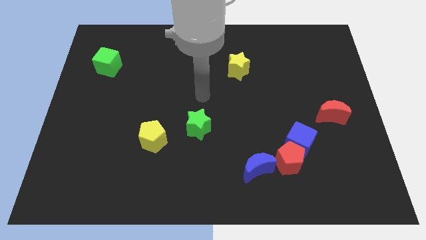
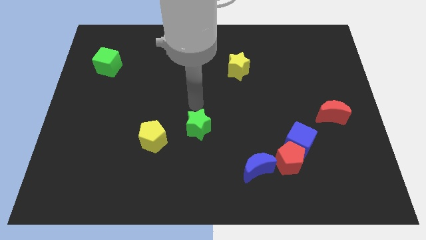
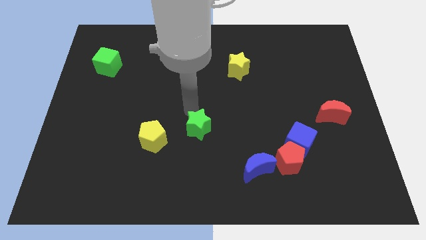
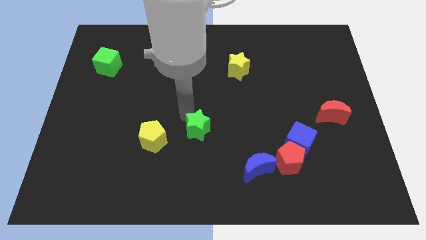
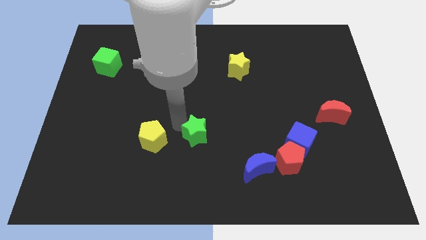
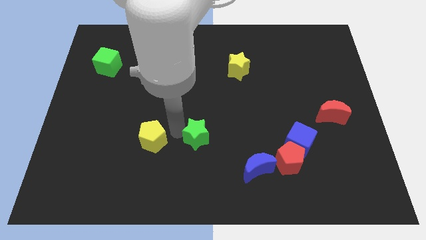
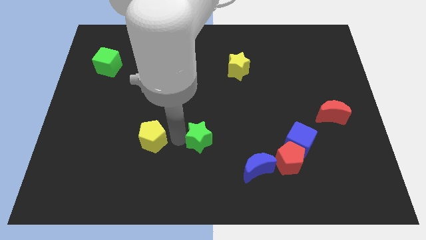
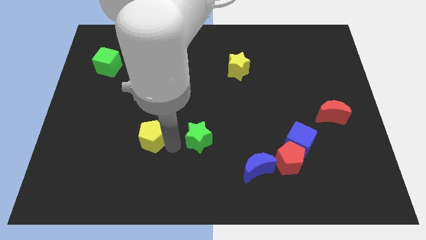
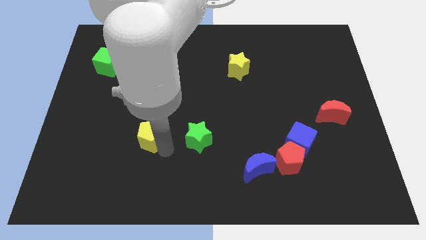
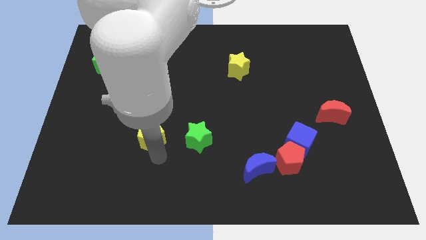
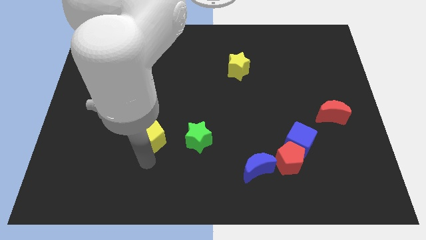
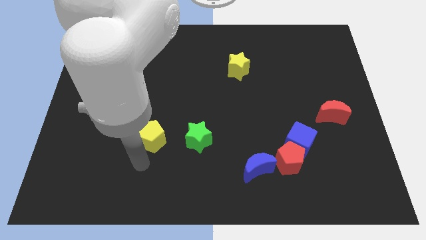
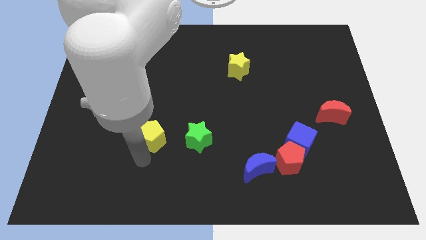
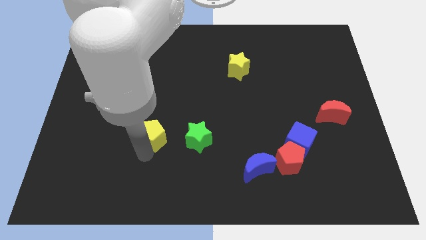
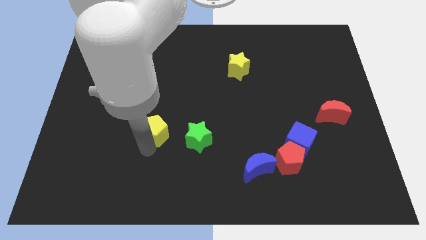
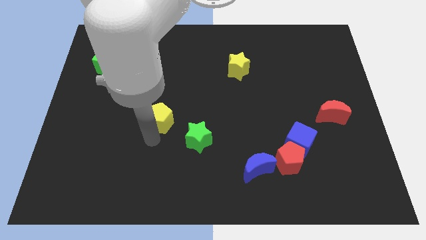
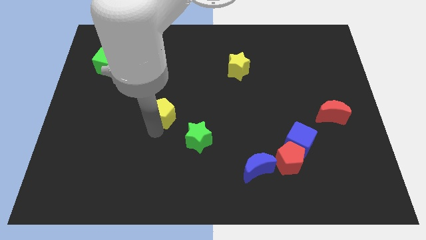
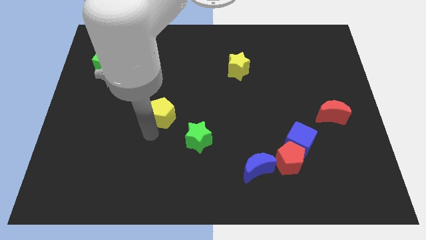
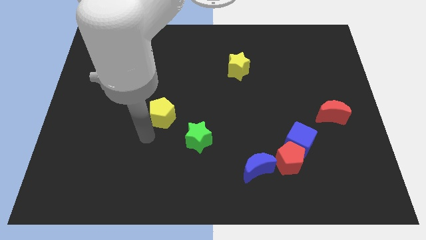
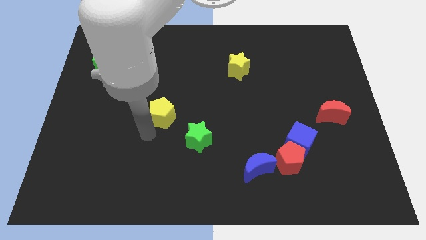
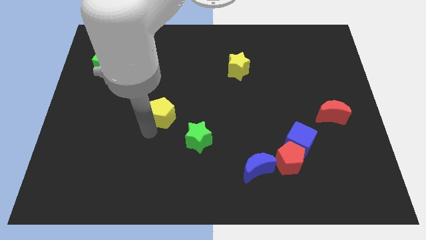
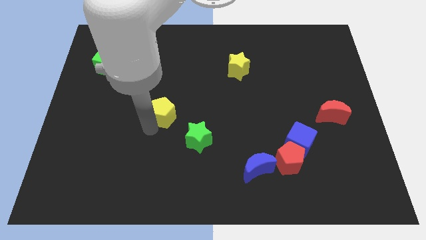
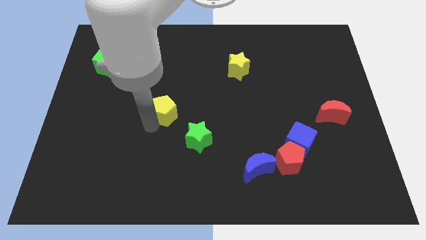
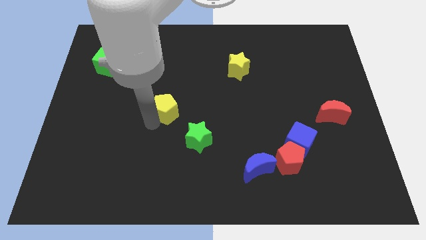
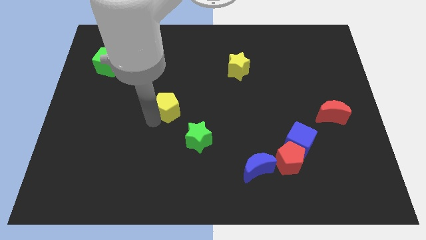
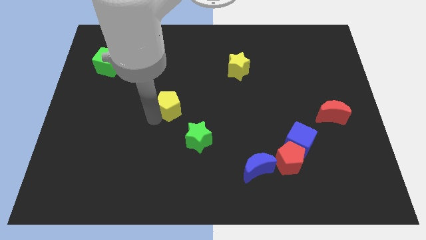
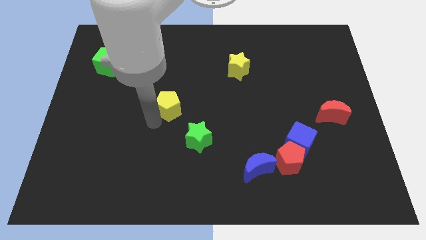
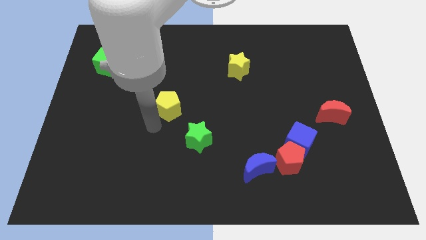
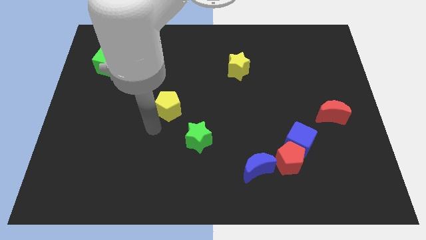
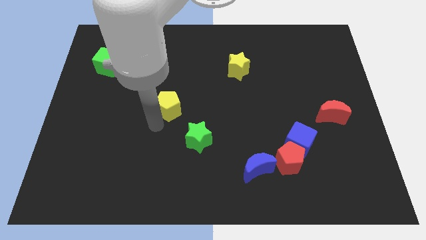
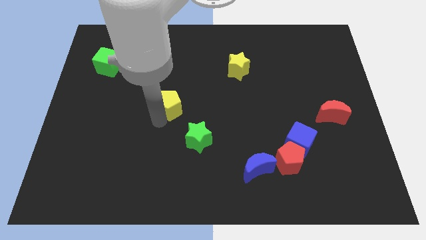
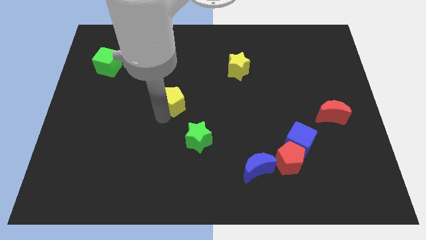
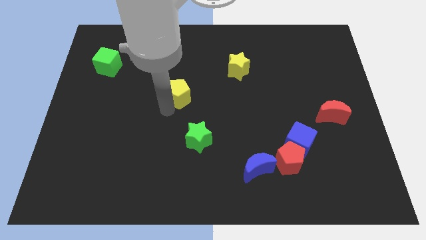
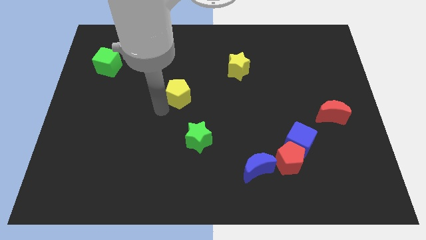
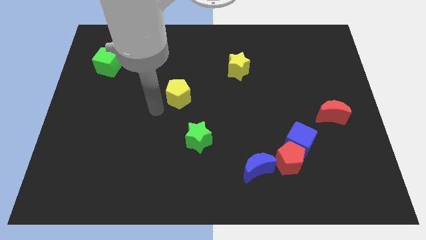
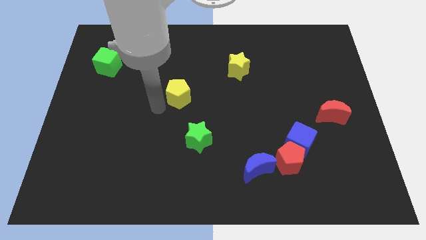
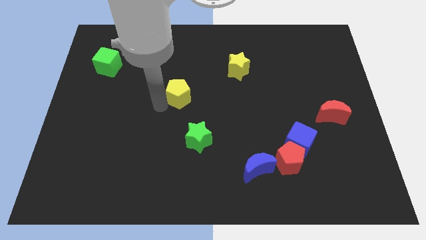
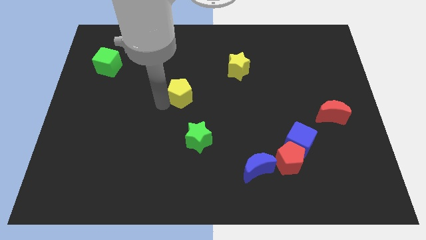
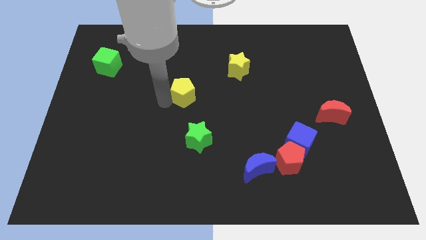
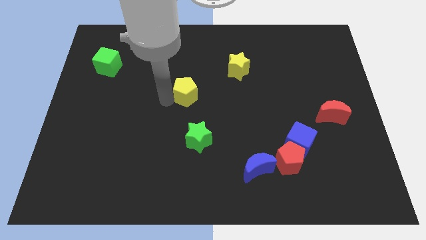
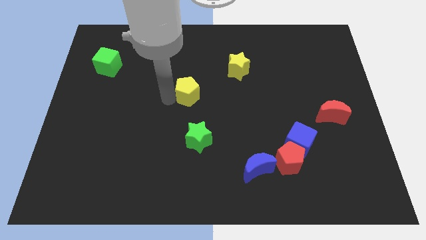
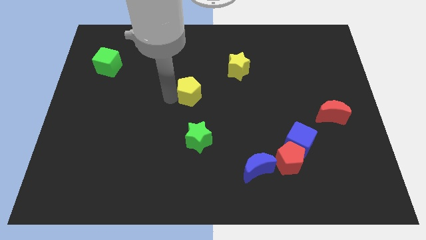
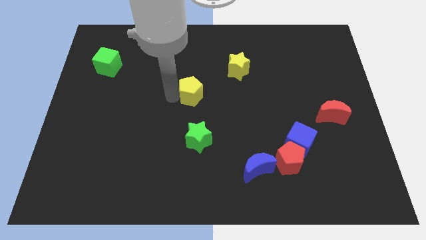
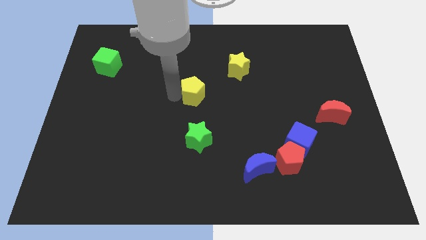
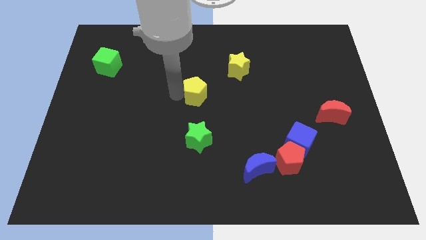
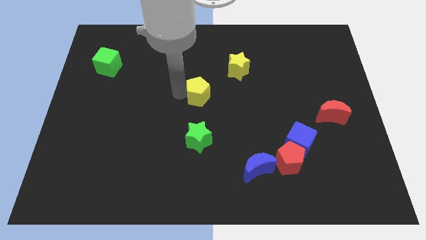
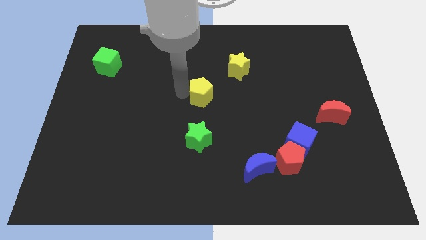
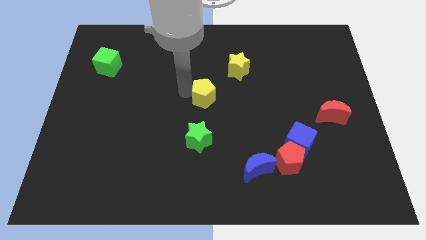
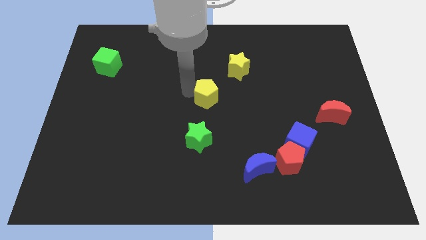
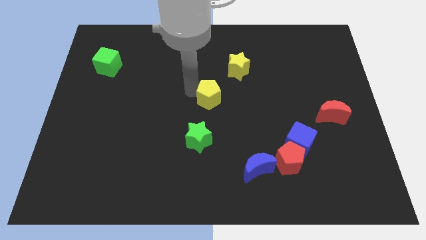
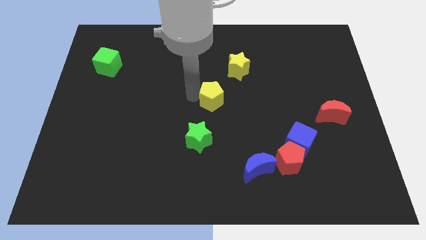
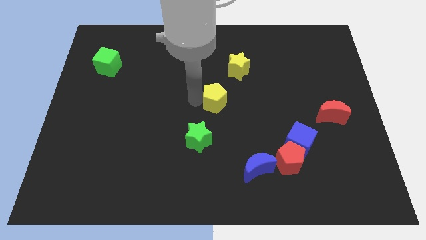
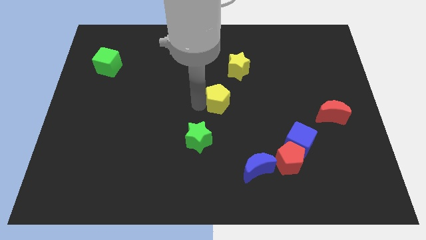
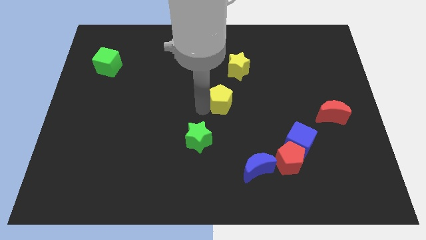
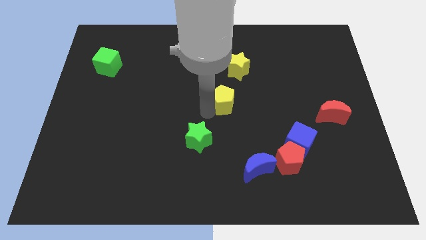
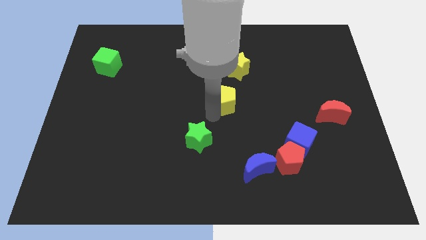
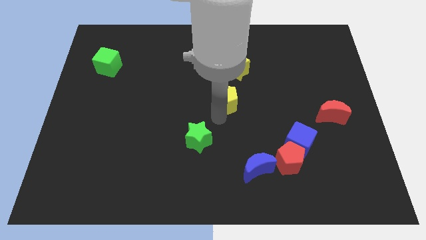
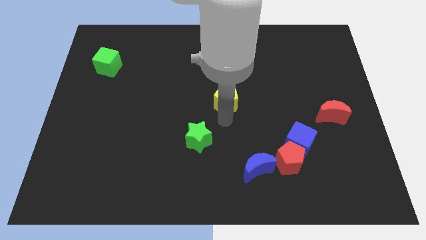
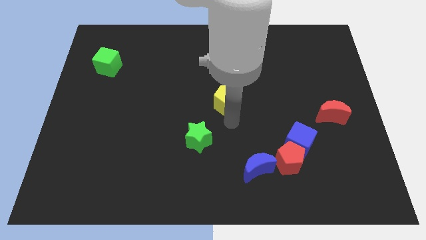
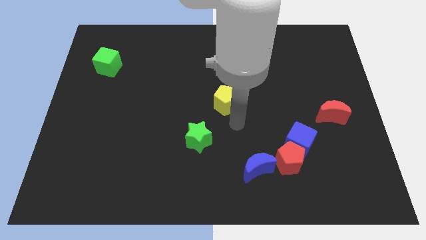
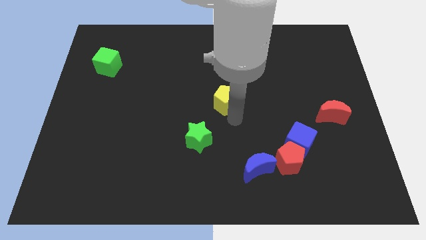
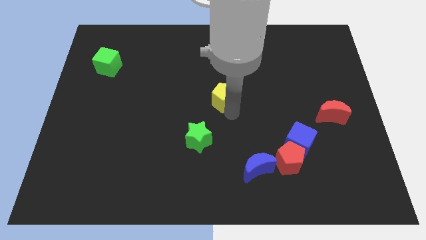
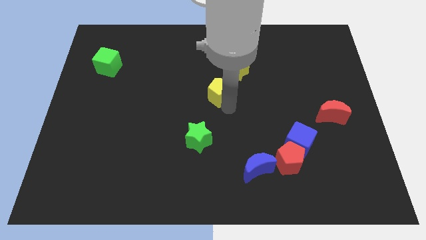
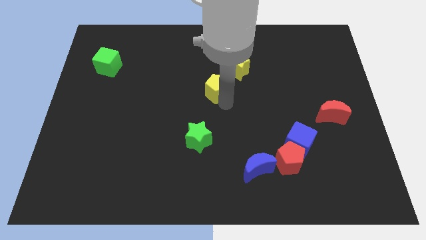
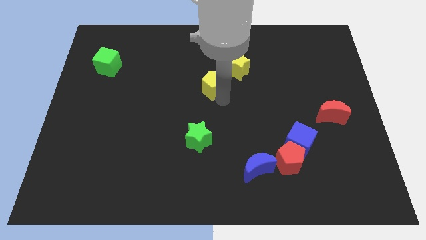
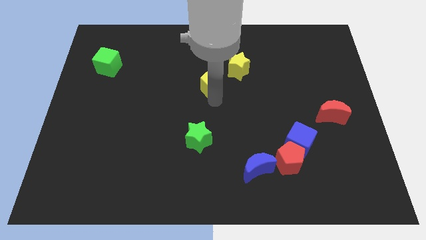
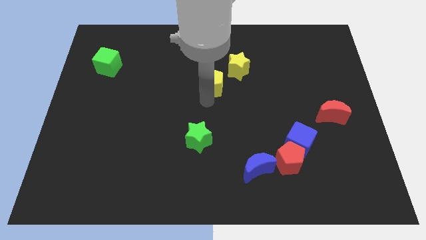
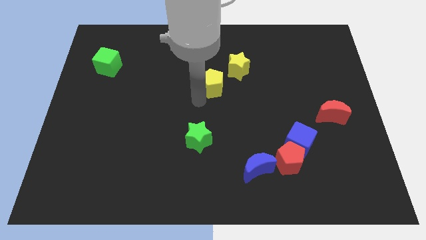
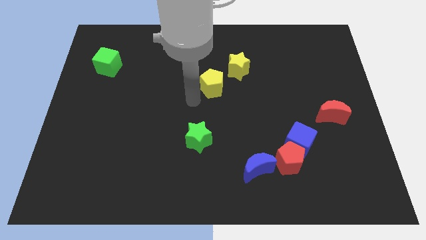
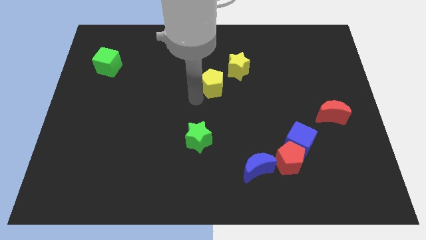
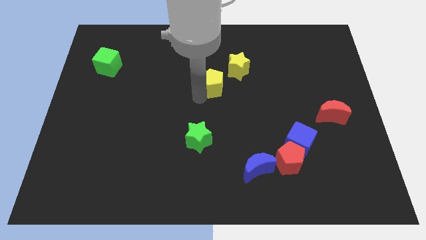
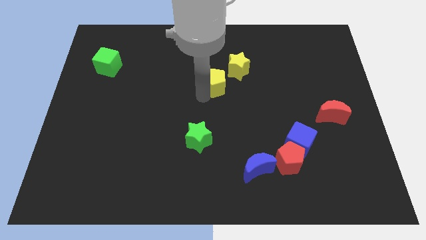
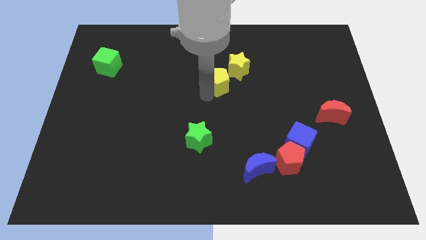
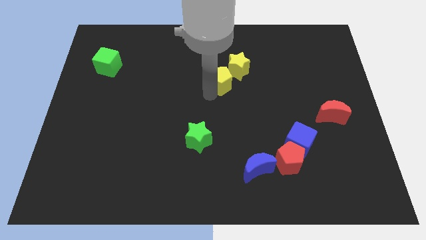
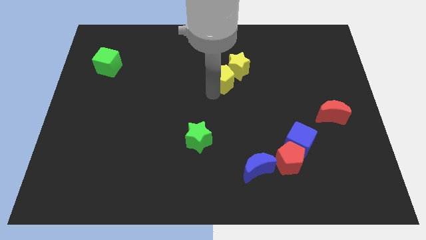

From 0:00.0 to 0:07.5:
push the yellow pentagon next to the yellow star
